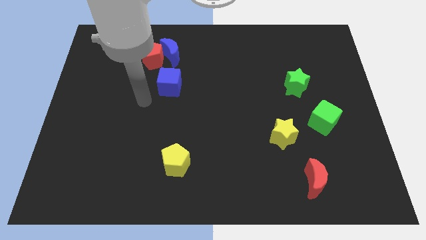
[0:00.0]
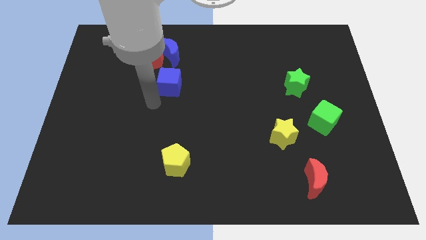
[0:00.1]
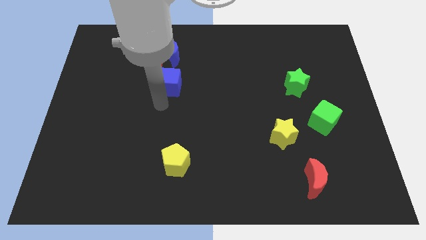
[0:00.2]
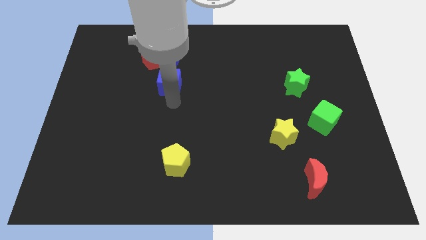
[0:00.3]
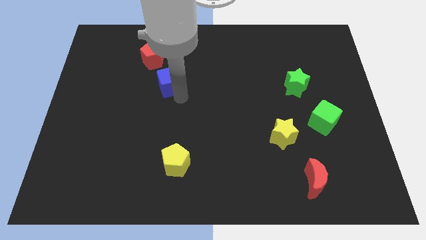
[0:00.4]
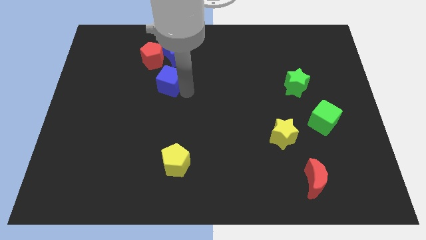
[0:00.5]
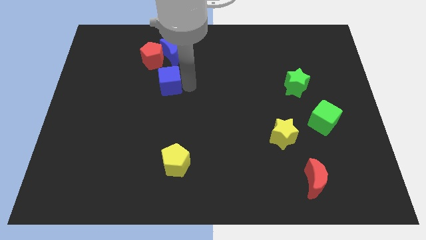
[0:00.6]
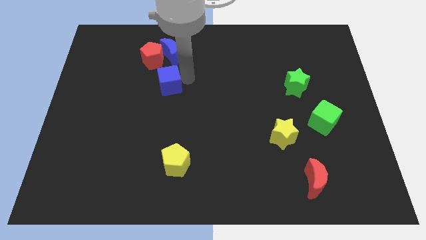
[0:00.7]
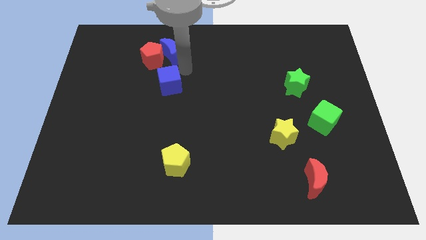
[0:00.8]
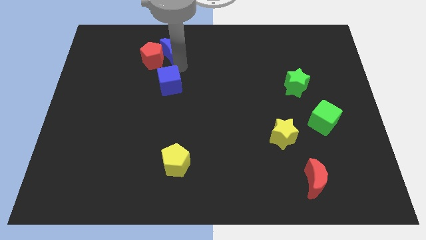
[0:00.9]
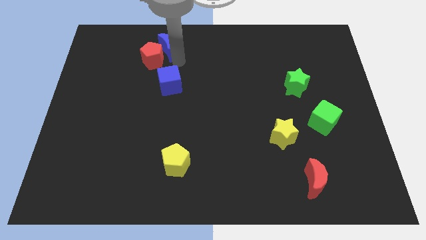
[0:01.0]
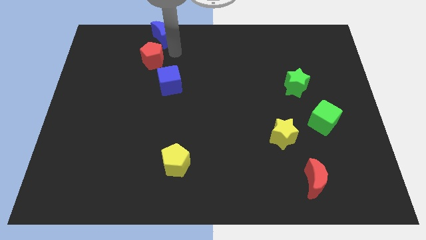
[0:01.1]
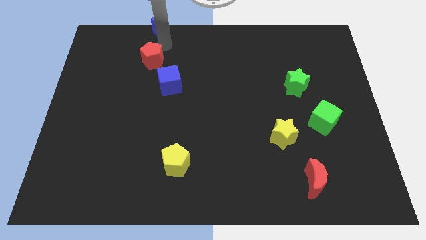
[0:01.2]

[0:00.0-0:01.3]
pull the red pentagon apart from the blue moon

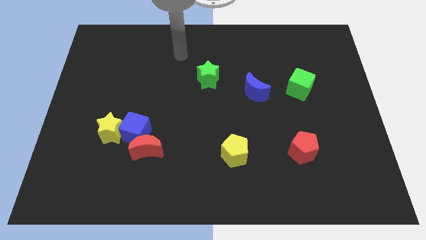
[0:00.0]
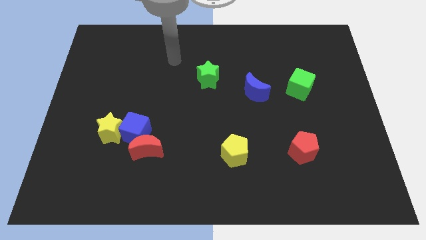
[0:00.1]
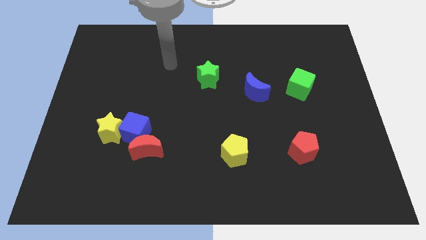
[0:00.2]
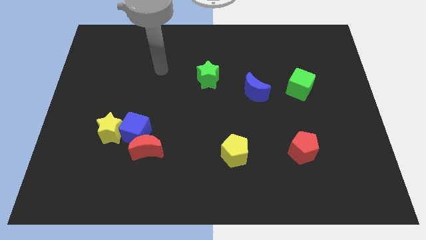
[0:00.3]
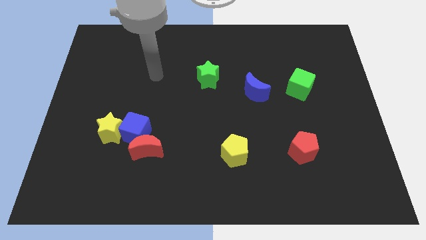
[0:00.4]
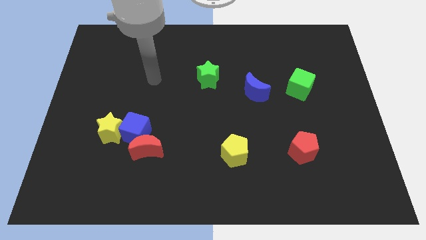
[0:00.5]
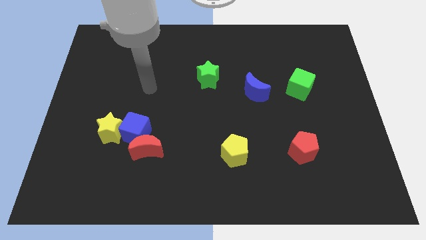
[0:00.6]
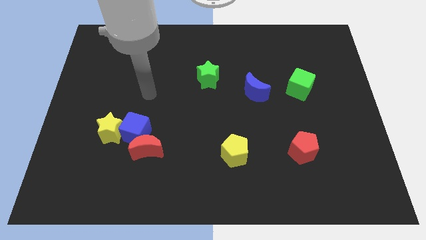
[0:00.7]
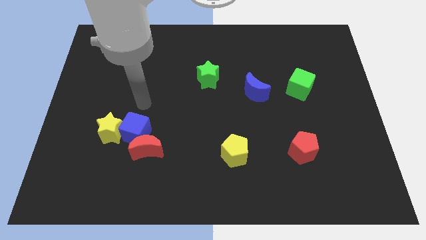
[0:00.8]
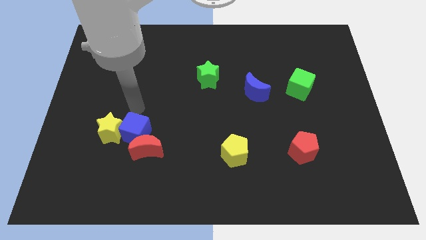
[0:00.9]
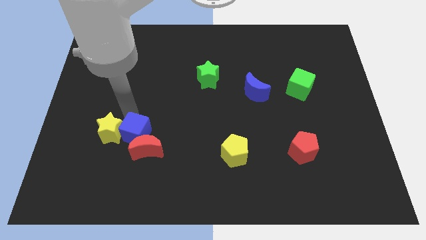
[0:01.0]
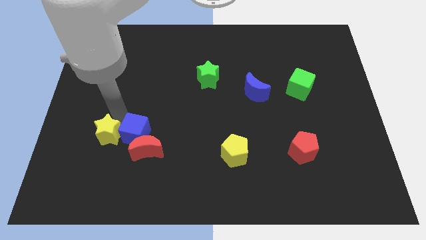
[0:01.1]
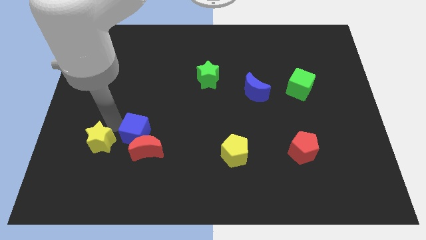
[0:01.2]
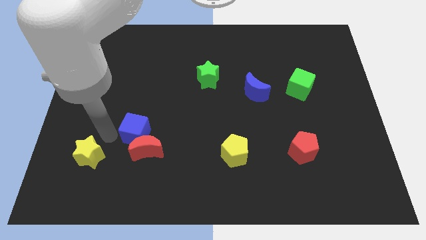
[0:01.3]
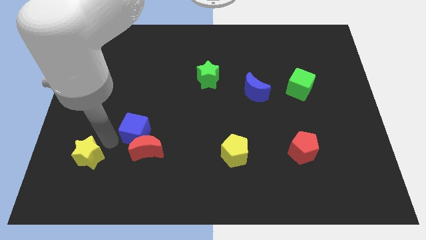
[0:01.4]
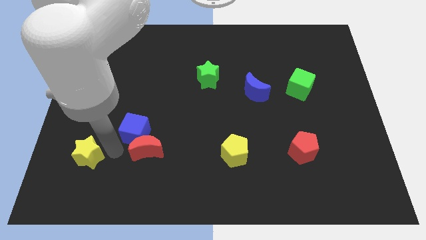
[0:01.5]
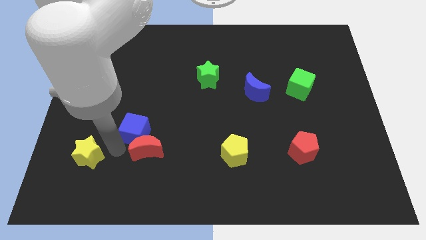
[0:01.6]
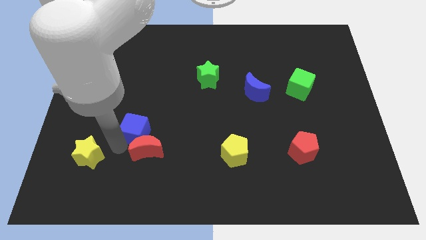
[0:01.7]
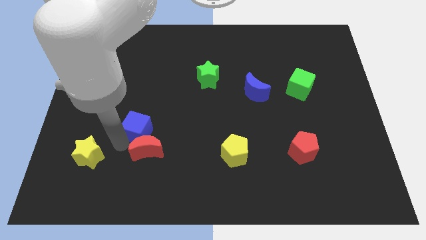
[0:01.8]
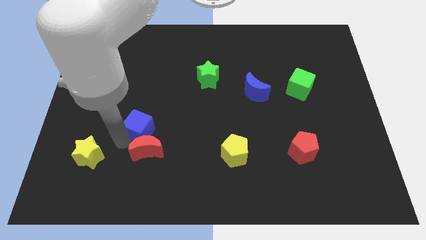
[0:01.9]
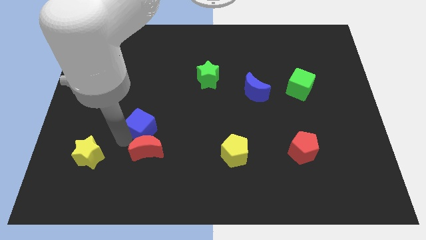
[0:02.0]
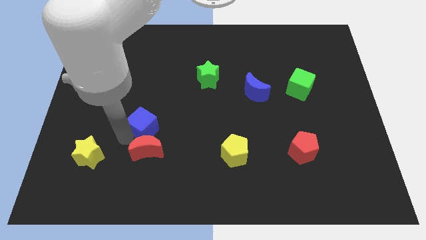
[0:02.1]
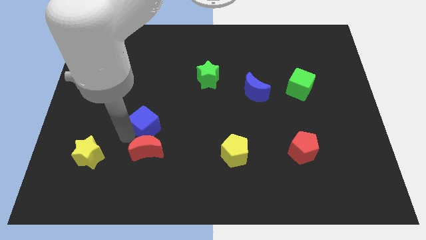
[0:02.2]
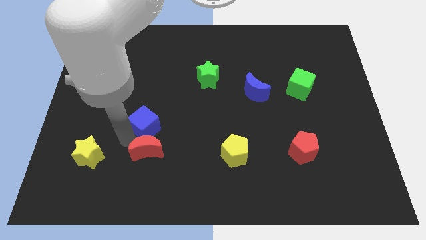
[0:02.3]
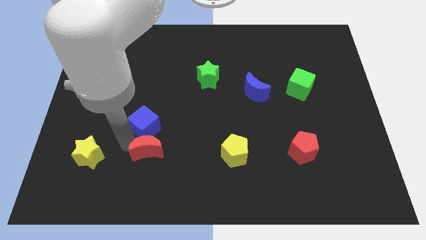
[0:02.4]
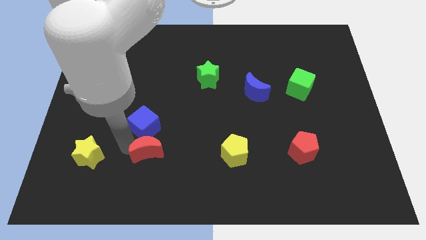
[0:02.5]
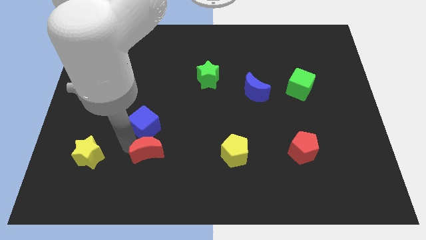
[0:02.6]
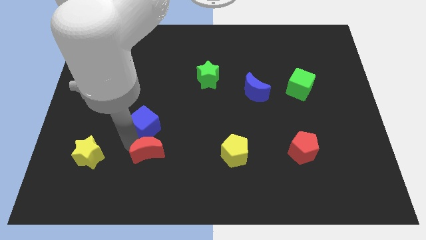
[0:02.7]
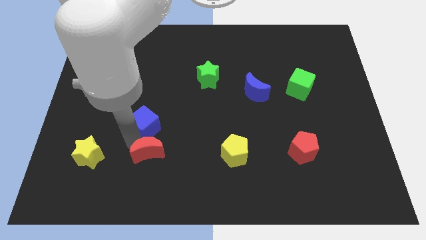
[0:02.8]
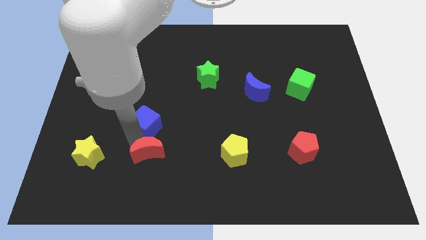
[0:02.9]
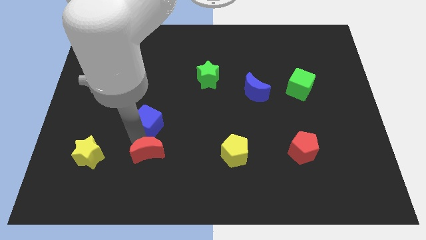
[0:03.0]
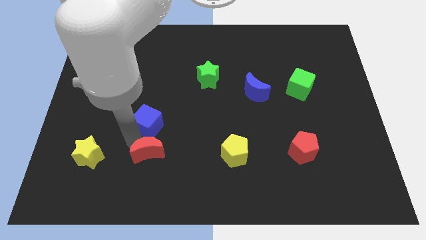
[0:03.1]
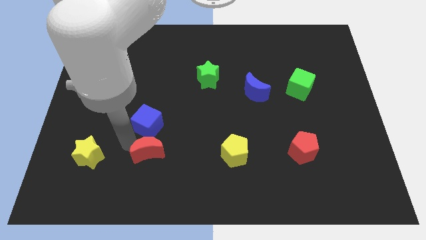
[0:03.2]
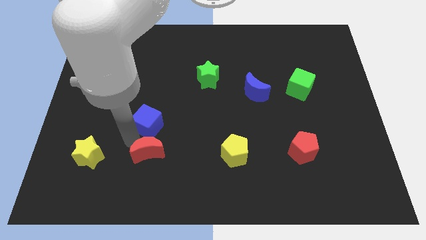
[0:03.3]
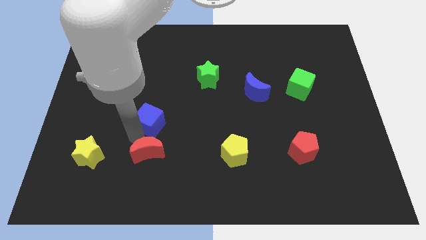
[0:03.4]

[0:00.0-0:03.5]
separate the blue cube from the red moon and yellow star

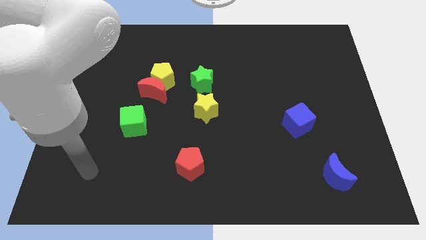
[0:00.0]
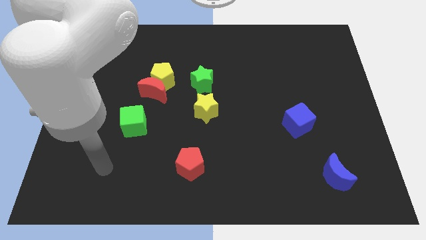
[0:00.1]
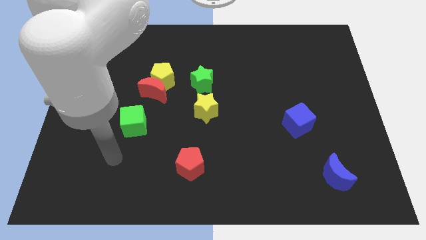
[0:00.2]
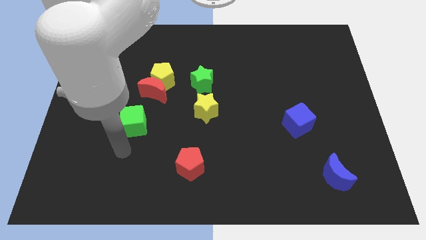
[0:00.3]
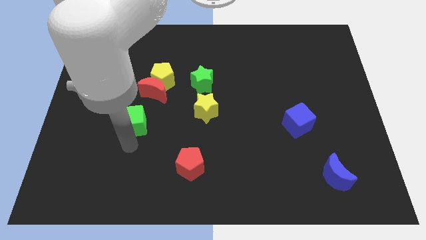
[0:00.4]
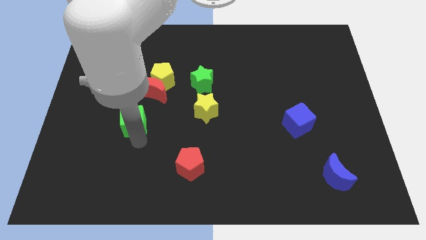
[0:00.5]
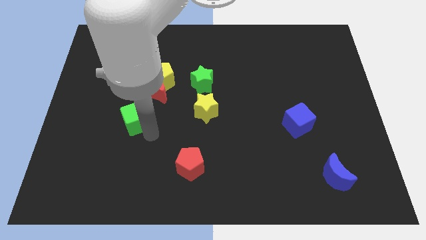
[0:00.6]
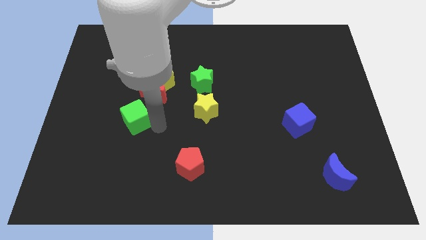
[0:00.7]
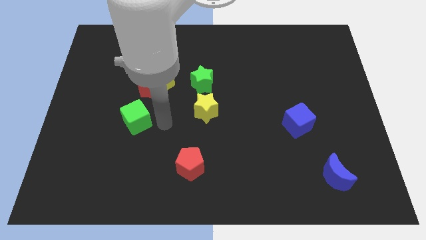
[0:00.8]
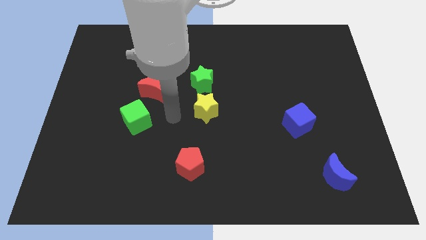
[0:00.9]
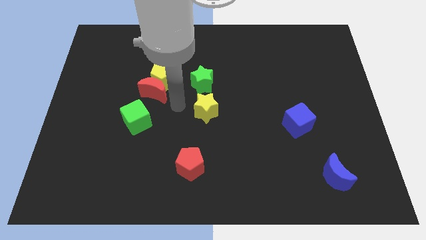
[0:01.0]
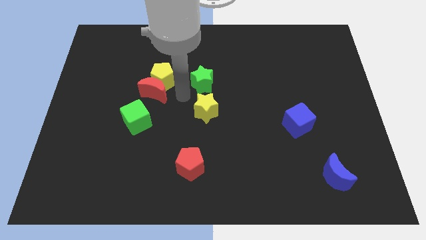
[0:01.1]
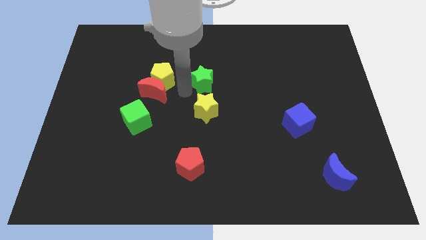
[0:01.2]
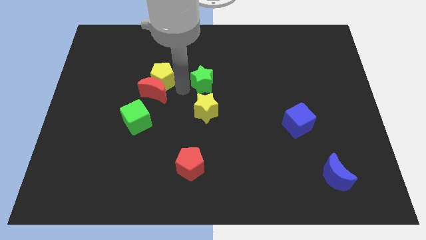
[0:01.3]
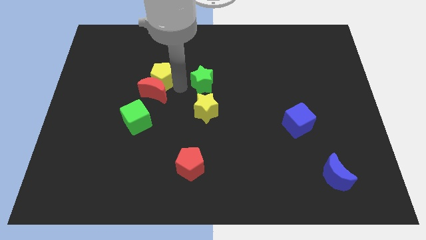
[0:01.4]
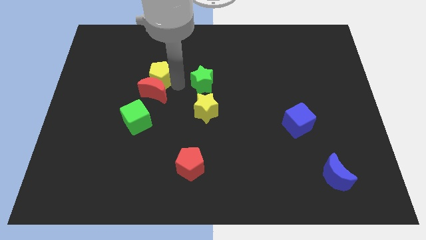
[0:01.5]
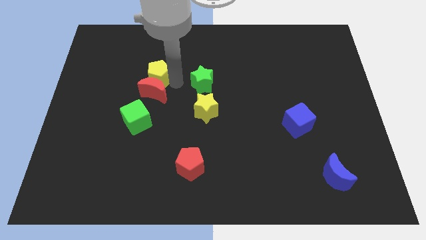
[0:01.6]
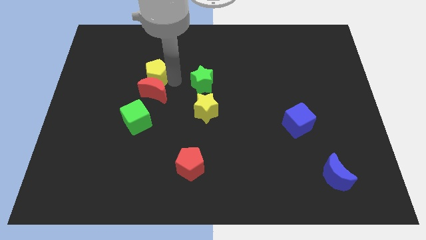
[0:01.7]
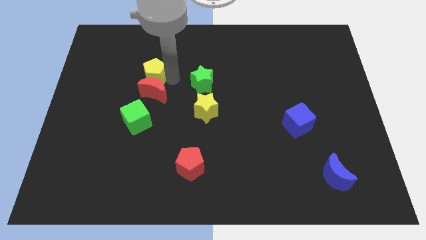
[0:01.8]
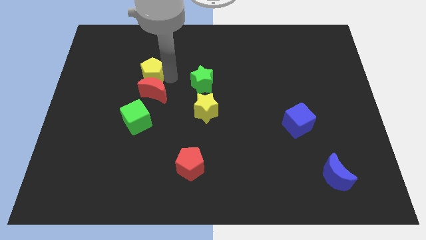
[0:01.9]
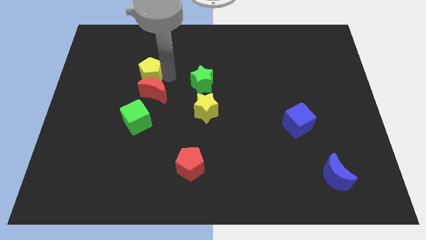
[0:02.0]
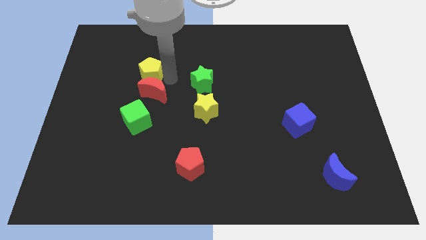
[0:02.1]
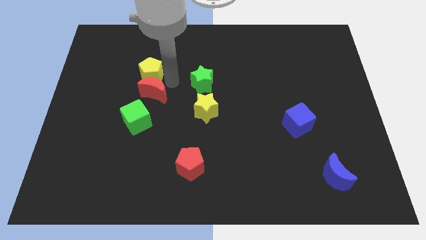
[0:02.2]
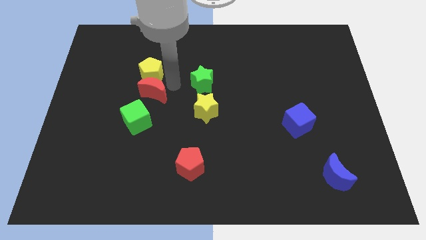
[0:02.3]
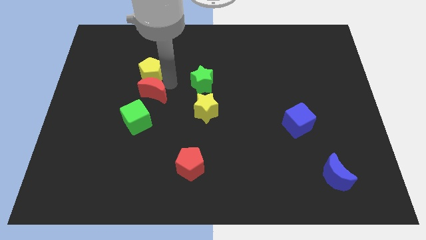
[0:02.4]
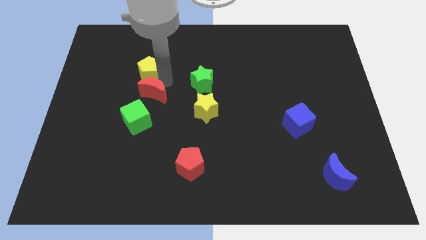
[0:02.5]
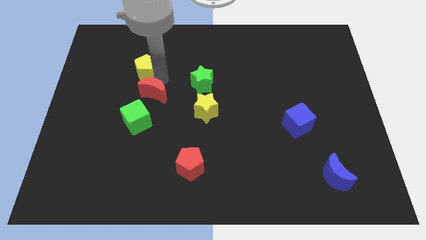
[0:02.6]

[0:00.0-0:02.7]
move the yellow pentagon away from the red moon and green star

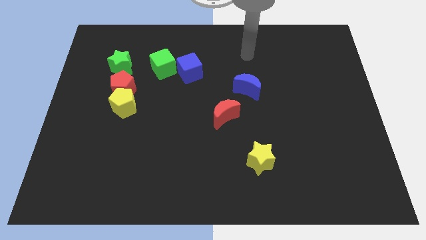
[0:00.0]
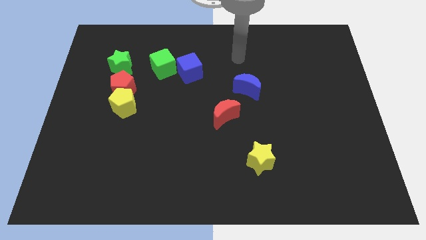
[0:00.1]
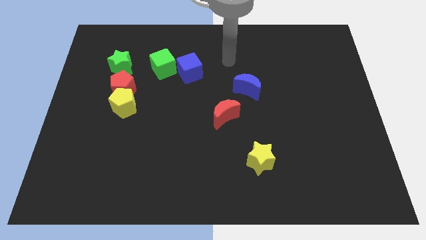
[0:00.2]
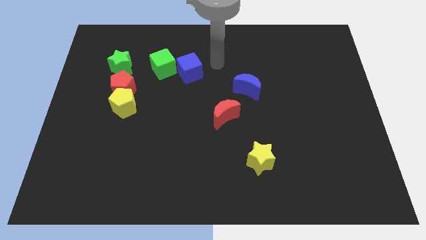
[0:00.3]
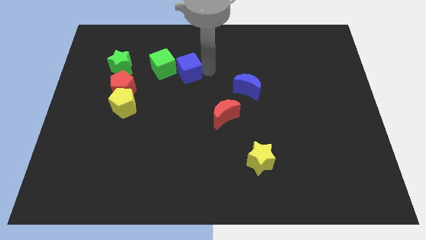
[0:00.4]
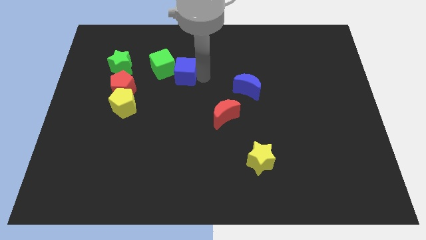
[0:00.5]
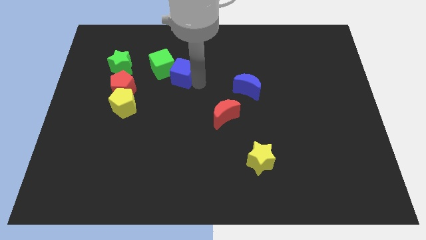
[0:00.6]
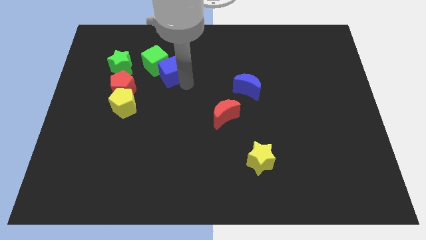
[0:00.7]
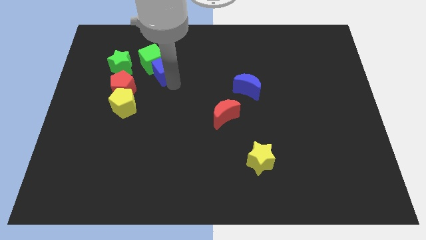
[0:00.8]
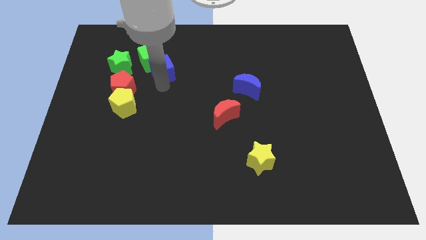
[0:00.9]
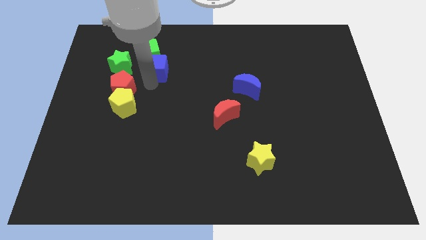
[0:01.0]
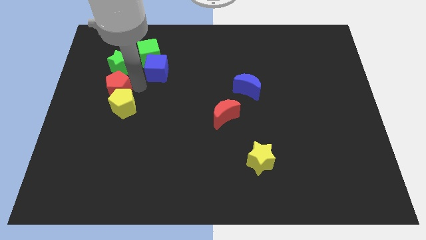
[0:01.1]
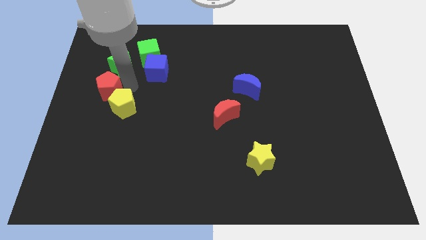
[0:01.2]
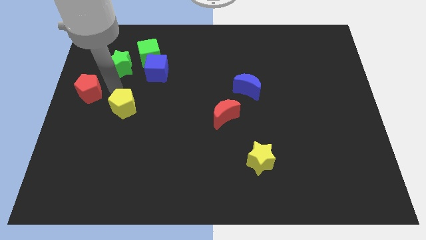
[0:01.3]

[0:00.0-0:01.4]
move the yellow pentagon away from the red pentagon

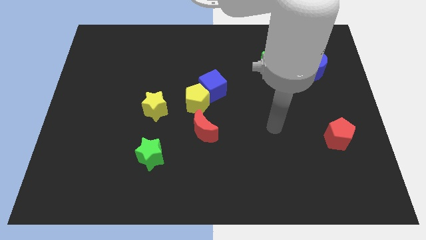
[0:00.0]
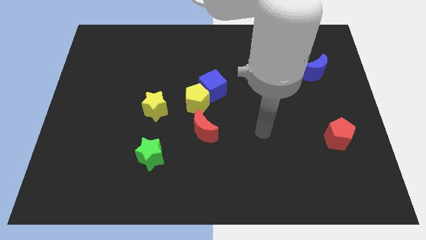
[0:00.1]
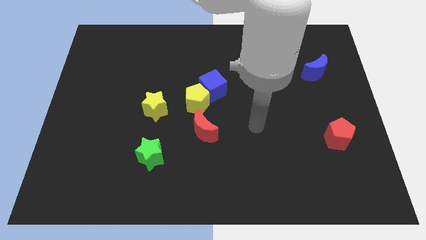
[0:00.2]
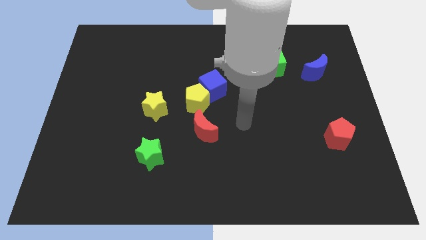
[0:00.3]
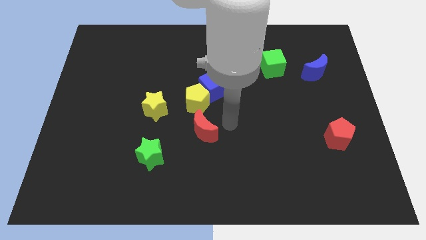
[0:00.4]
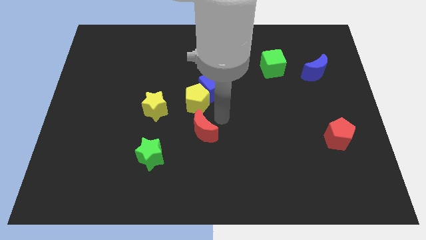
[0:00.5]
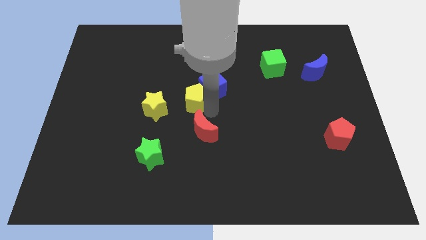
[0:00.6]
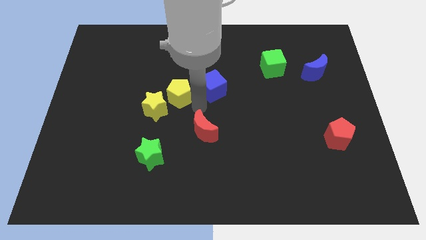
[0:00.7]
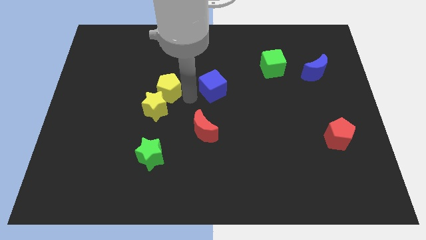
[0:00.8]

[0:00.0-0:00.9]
separate the blue cube from the yellow pentagon
